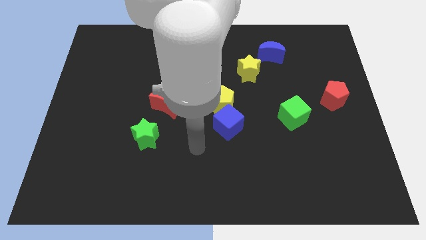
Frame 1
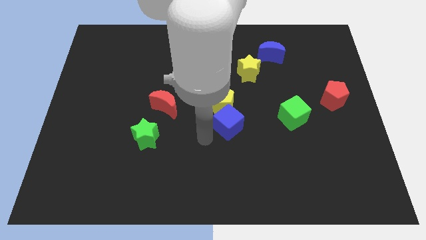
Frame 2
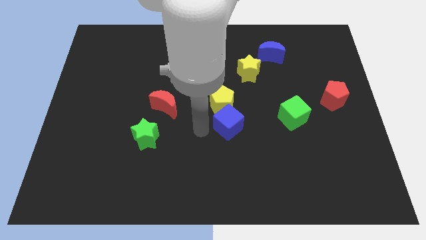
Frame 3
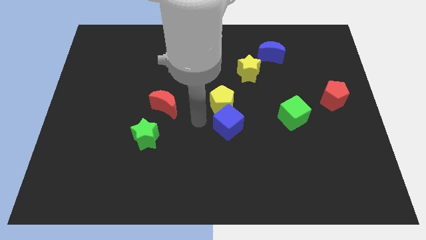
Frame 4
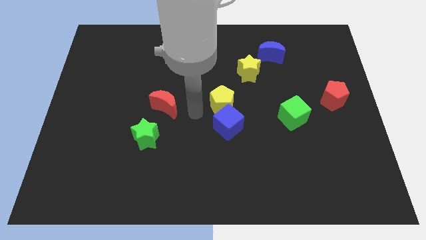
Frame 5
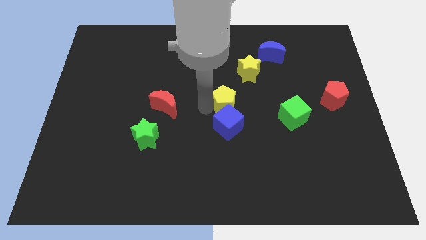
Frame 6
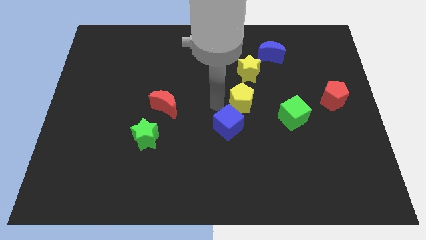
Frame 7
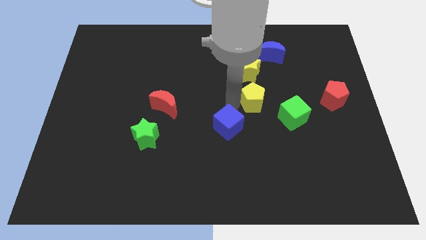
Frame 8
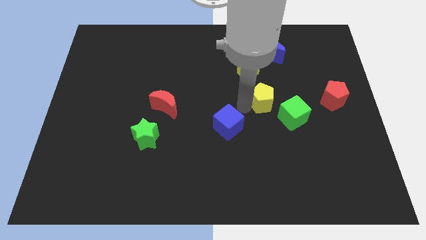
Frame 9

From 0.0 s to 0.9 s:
pull the blue cube apart from the yellow pentagon

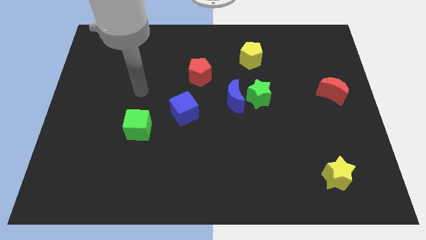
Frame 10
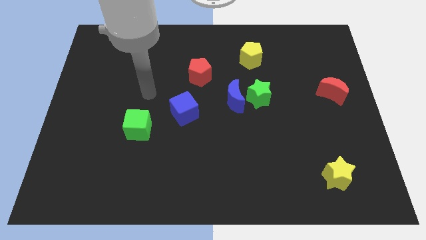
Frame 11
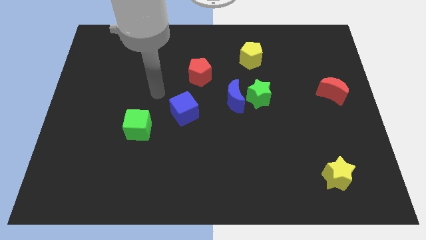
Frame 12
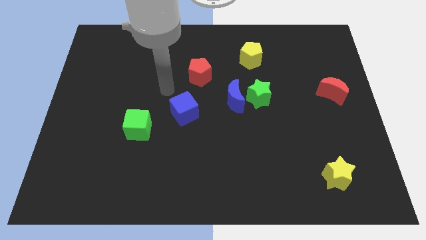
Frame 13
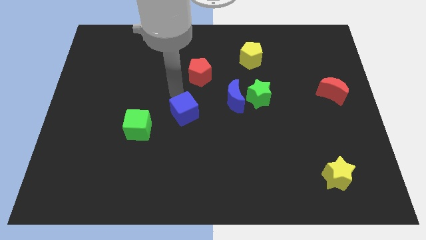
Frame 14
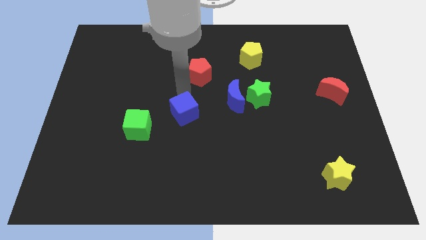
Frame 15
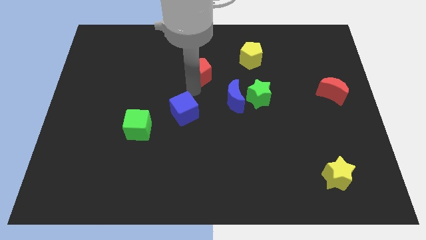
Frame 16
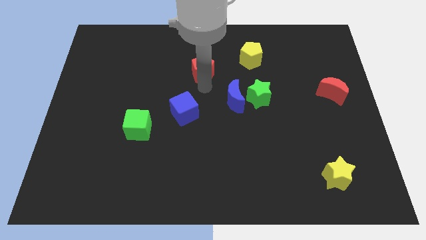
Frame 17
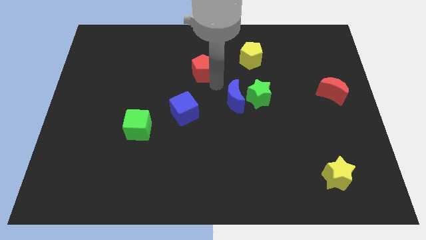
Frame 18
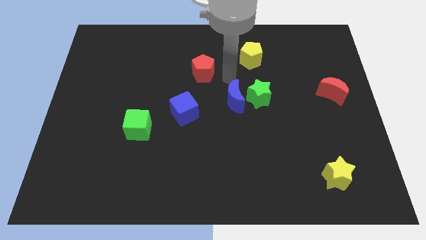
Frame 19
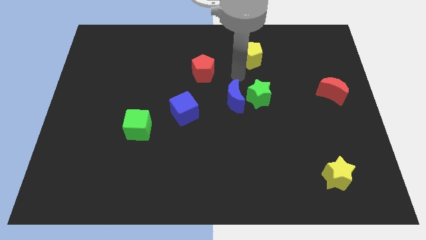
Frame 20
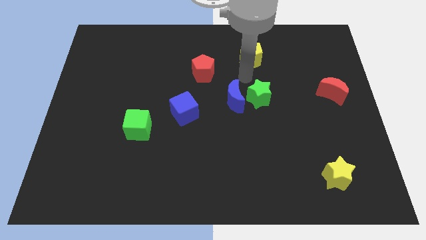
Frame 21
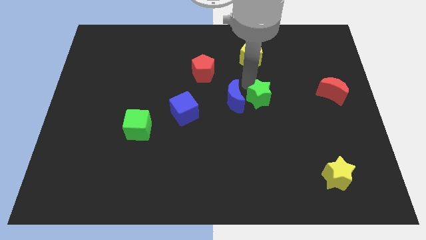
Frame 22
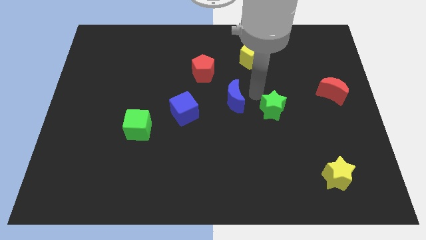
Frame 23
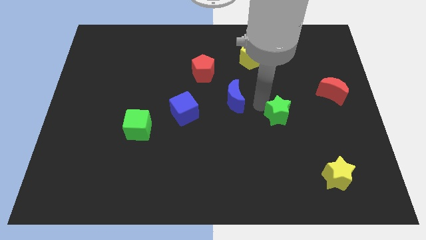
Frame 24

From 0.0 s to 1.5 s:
separate the blue moon from the green star

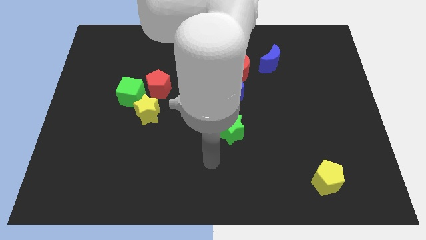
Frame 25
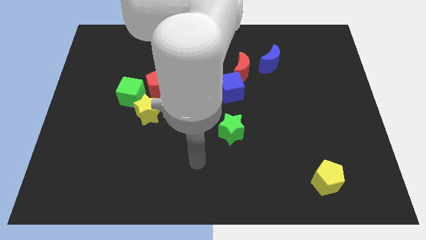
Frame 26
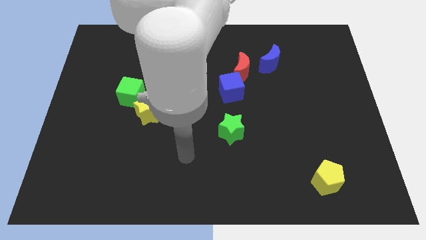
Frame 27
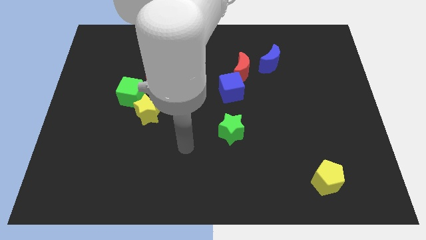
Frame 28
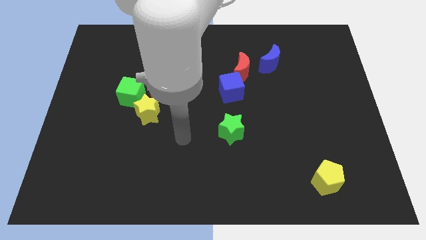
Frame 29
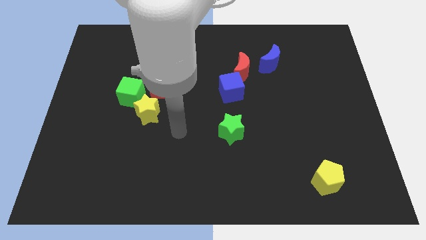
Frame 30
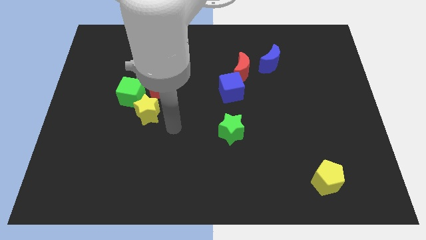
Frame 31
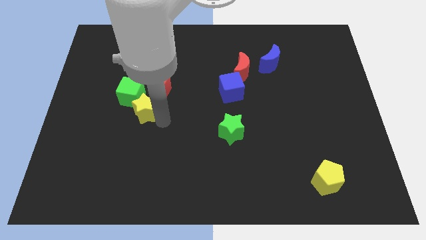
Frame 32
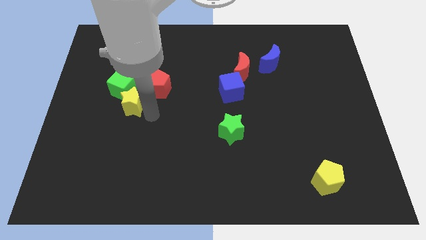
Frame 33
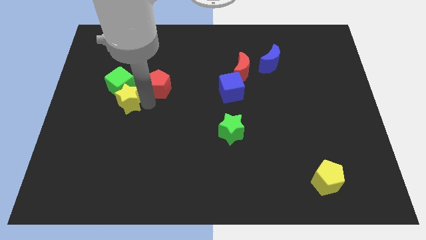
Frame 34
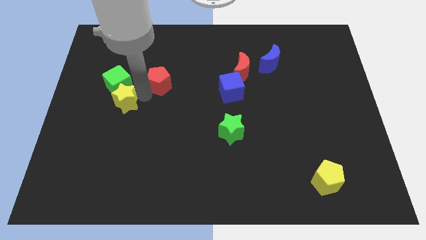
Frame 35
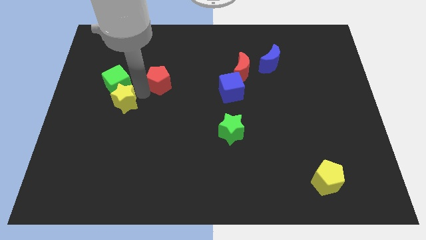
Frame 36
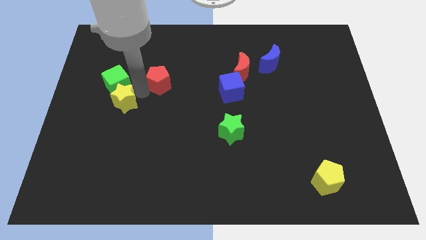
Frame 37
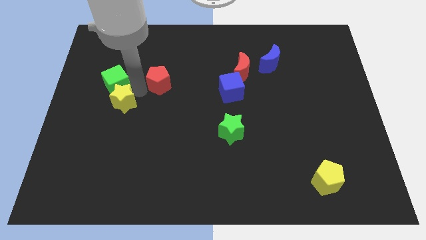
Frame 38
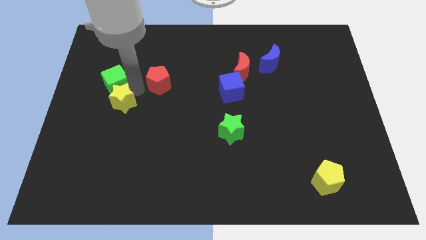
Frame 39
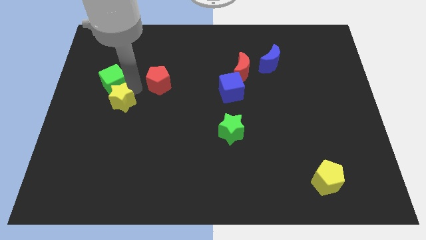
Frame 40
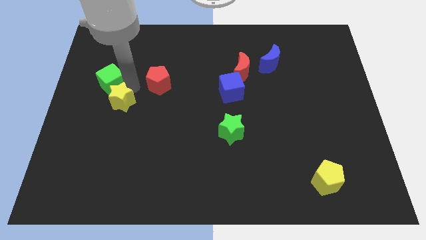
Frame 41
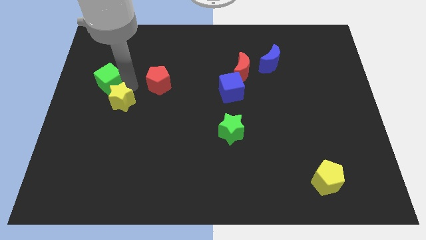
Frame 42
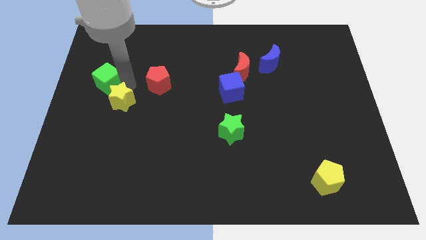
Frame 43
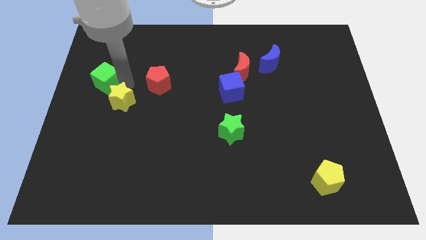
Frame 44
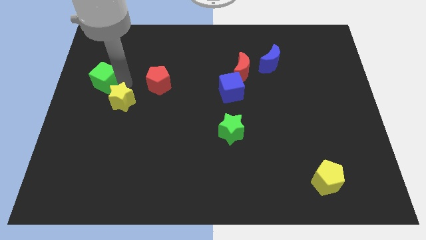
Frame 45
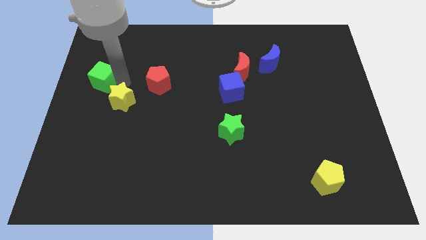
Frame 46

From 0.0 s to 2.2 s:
separate the green cube from the red pentagon and yellow star

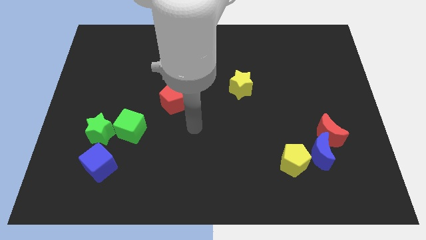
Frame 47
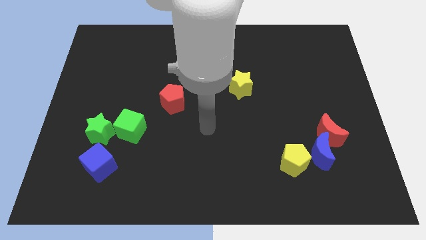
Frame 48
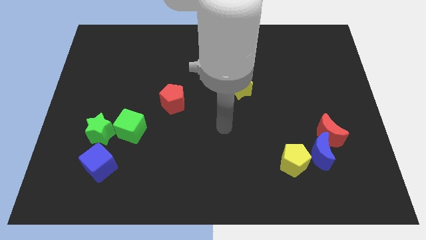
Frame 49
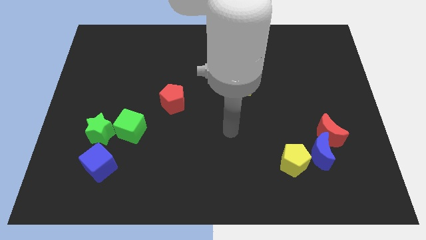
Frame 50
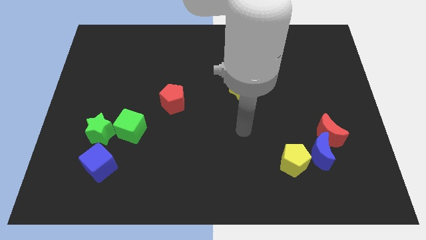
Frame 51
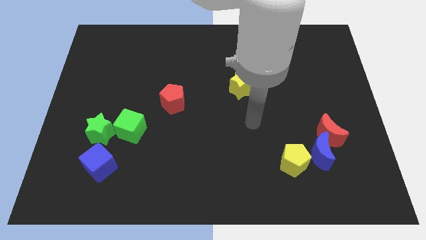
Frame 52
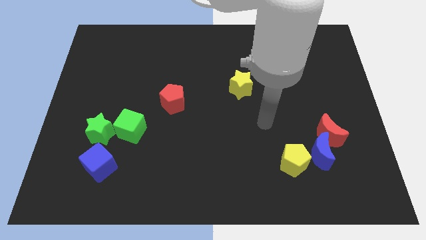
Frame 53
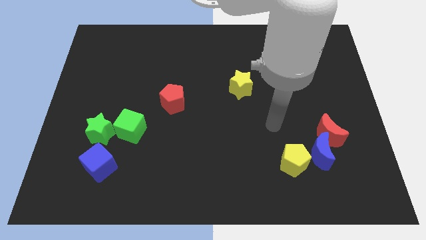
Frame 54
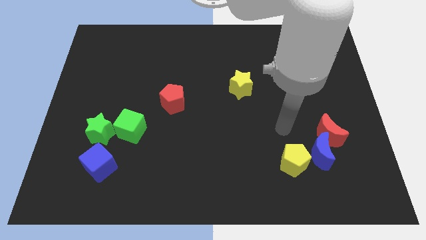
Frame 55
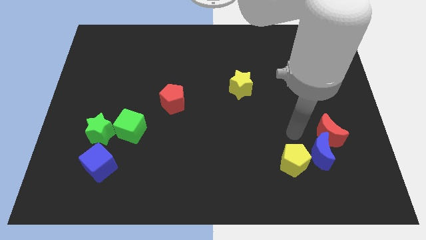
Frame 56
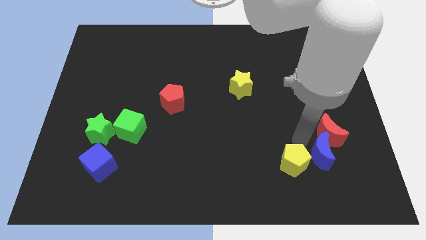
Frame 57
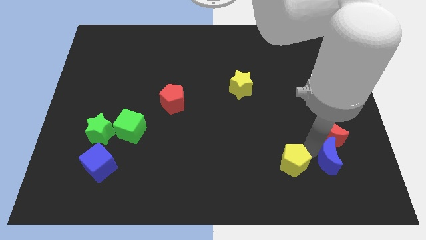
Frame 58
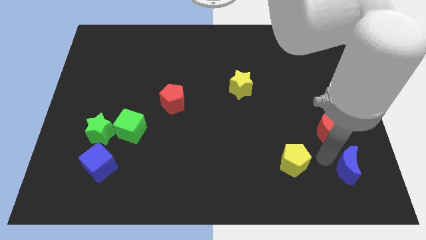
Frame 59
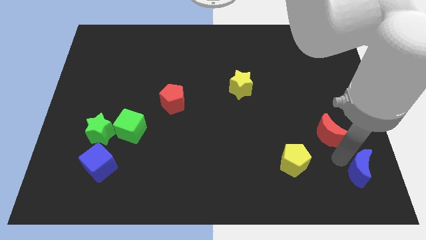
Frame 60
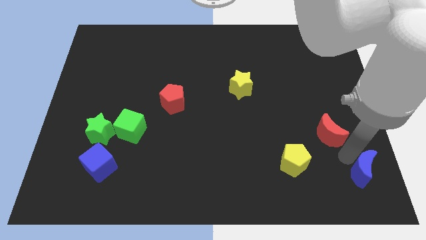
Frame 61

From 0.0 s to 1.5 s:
pull the red moon apart from the blue moon

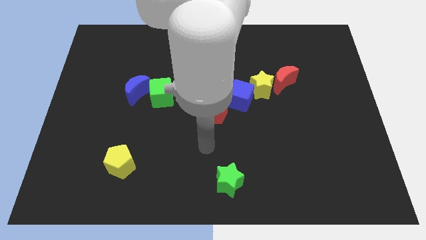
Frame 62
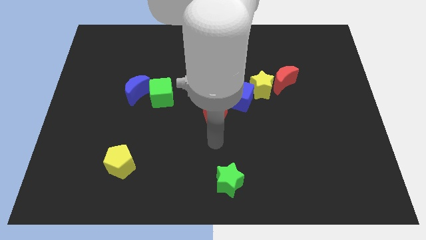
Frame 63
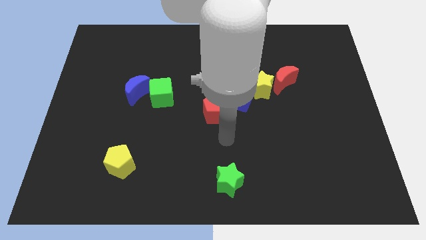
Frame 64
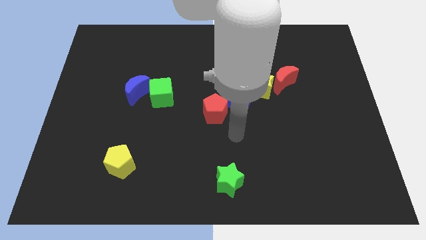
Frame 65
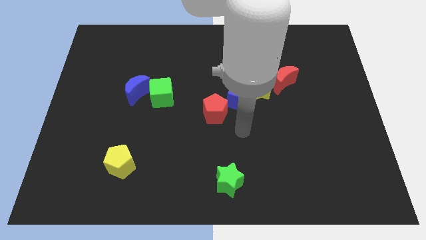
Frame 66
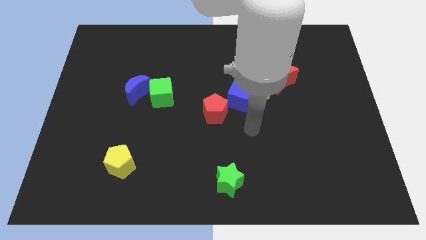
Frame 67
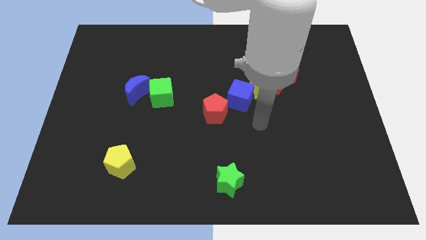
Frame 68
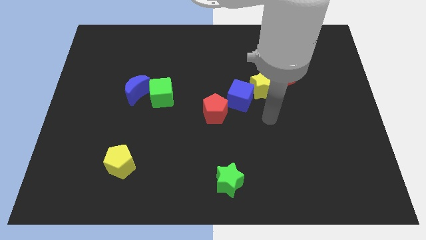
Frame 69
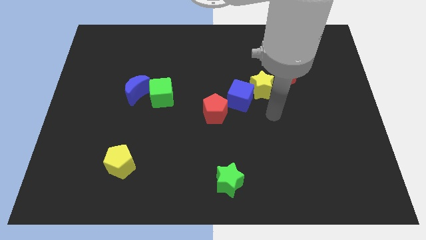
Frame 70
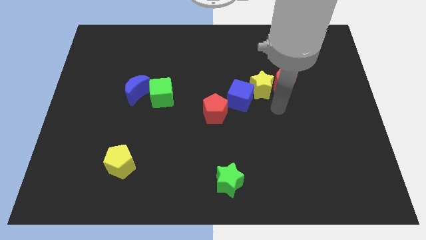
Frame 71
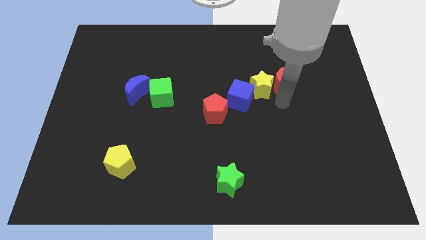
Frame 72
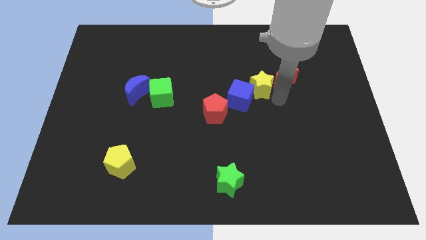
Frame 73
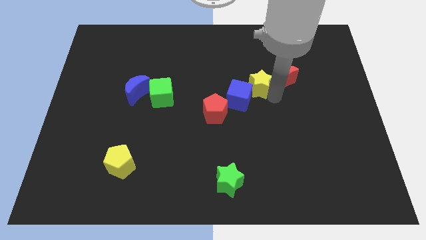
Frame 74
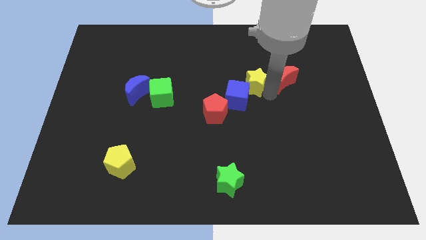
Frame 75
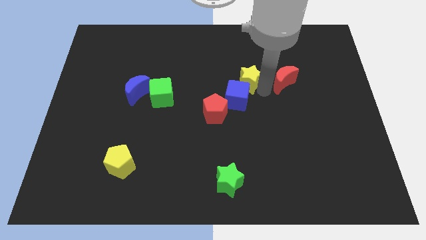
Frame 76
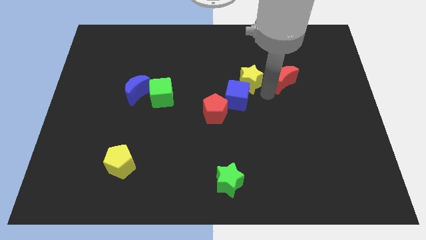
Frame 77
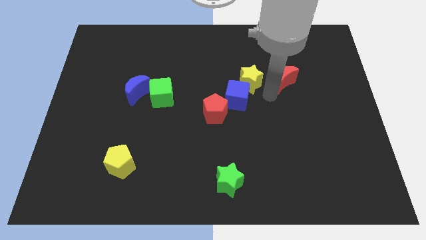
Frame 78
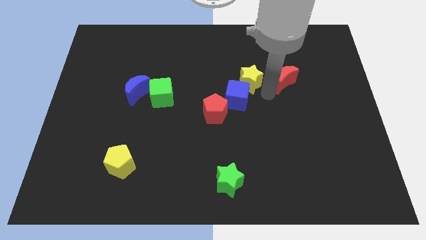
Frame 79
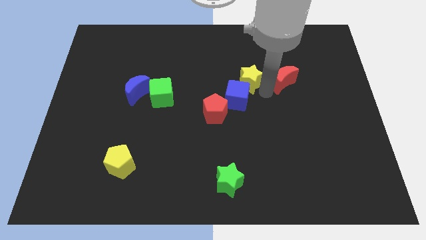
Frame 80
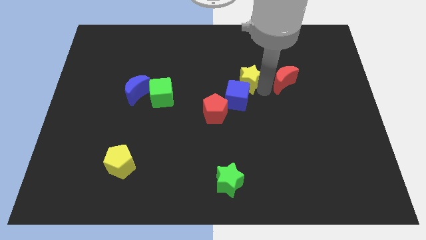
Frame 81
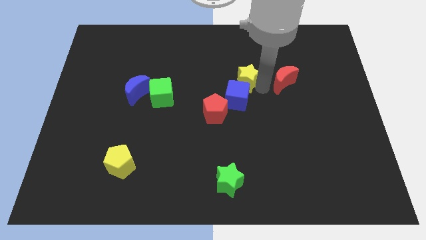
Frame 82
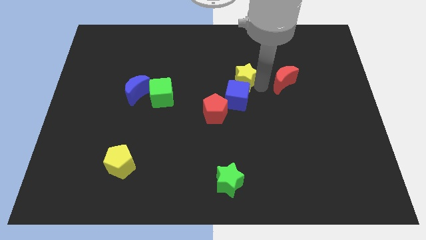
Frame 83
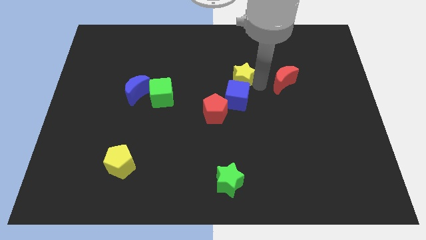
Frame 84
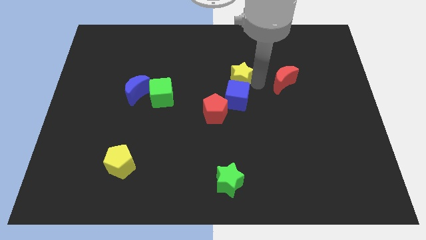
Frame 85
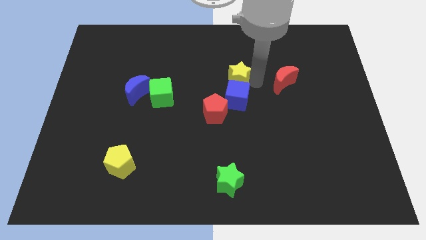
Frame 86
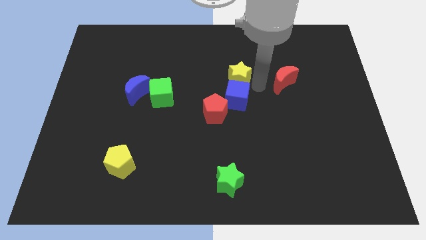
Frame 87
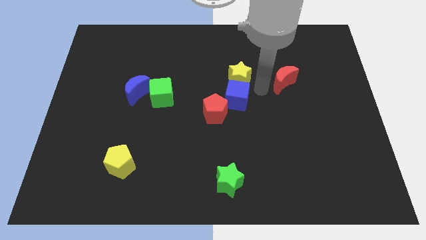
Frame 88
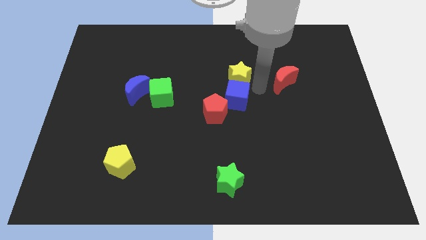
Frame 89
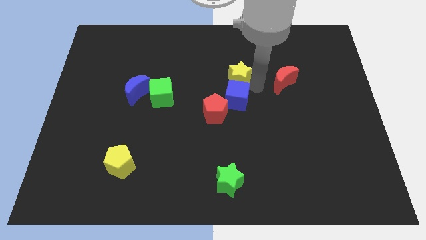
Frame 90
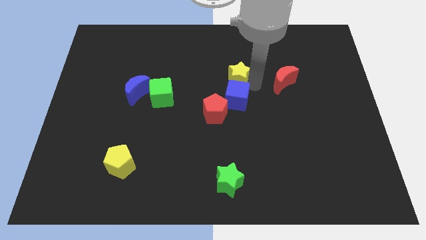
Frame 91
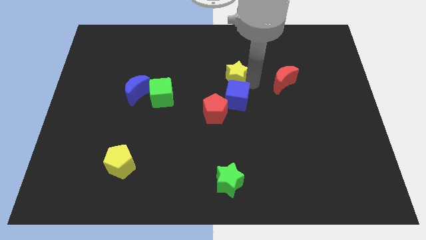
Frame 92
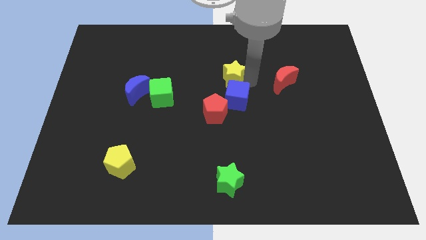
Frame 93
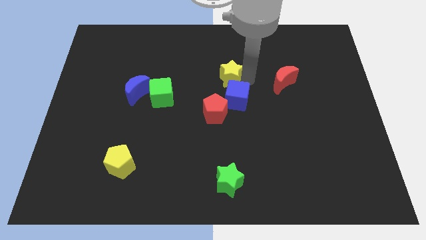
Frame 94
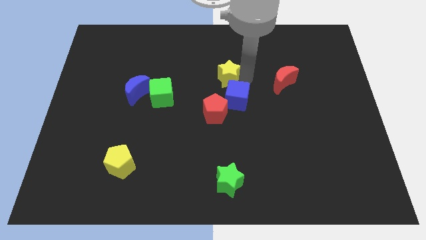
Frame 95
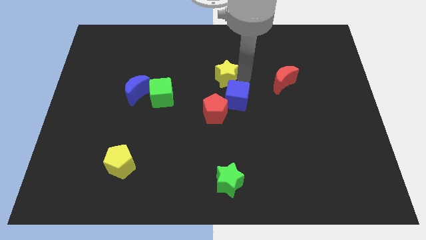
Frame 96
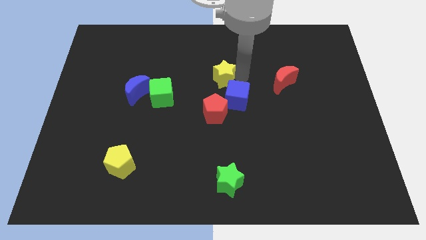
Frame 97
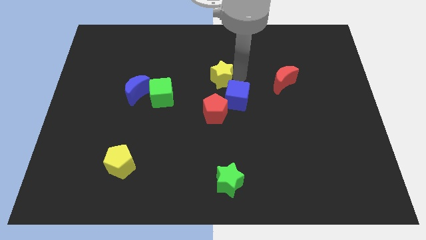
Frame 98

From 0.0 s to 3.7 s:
move the yellow star away from the blue cube and red moon
